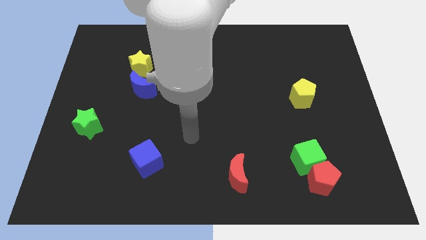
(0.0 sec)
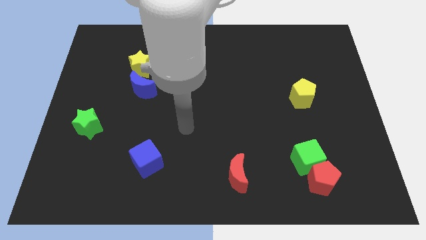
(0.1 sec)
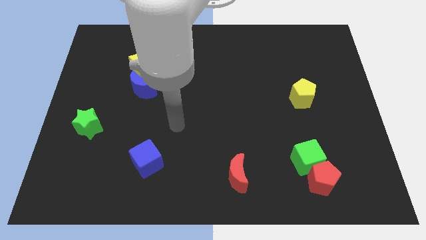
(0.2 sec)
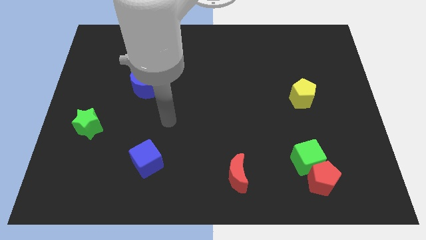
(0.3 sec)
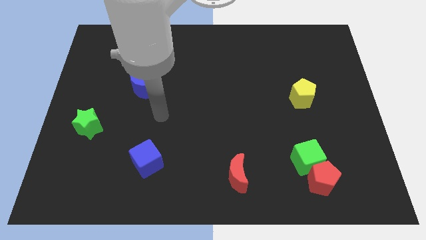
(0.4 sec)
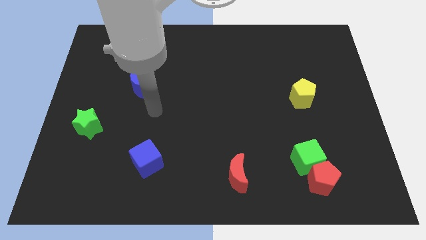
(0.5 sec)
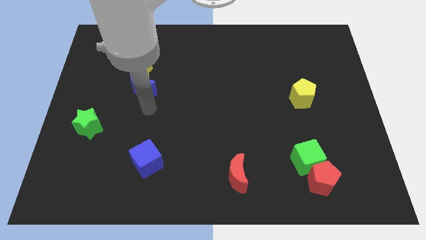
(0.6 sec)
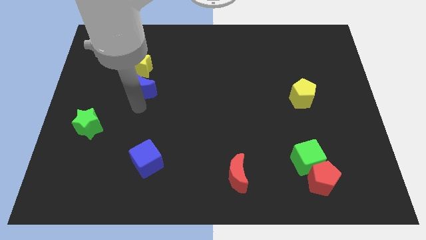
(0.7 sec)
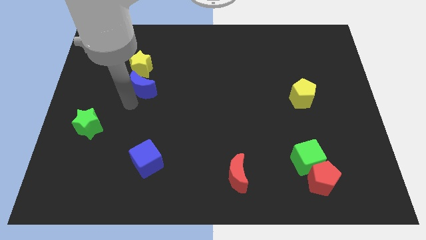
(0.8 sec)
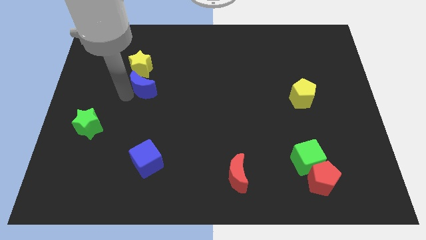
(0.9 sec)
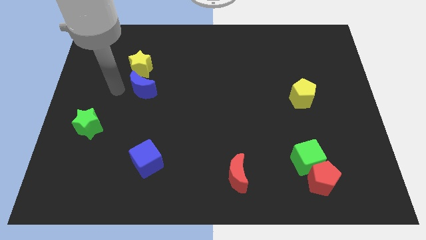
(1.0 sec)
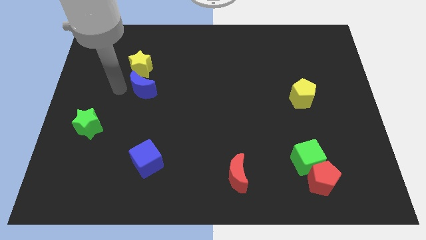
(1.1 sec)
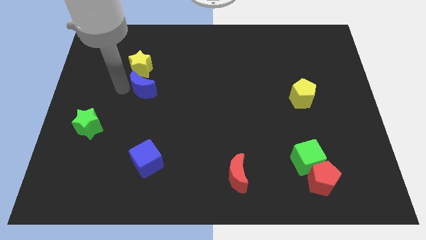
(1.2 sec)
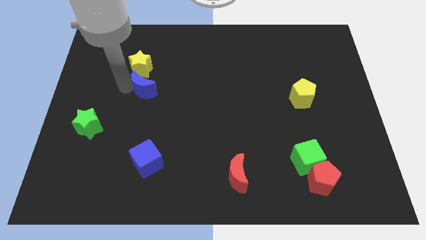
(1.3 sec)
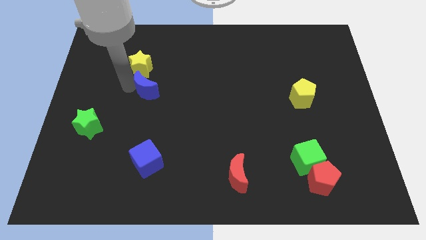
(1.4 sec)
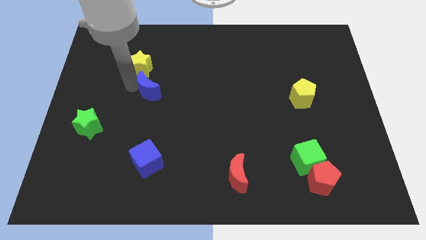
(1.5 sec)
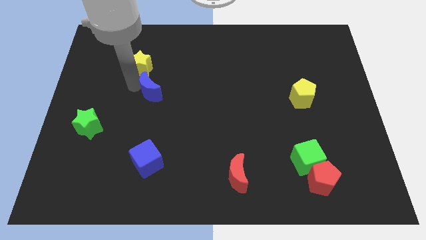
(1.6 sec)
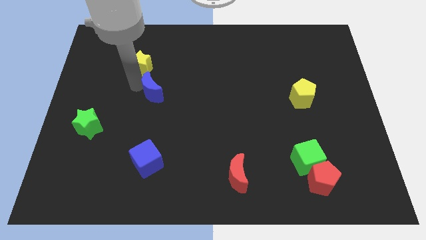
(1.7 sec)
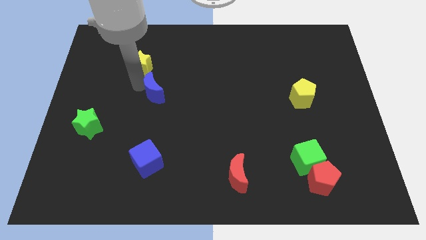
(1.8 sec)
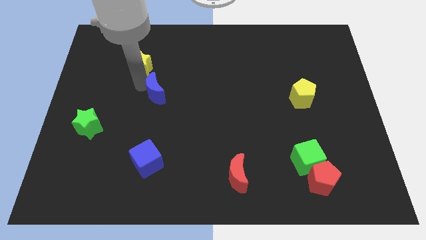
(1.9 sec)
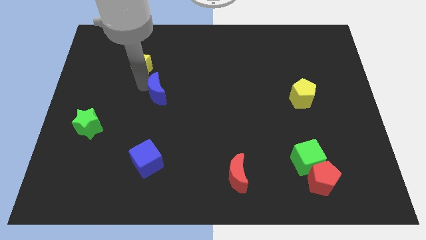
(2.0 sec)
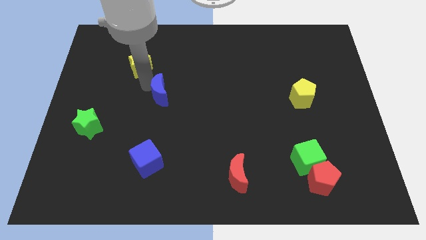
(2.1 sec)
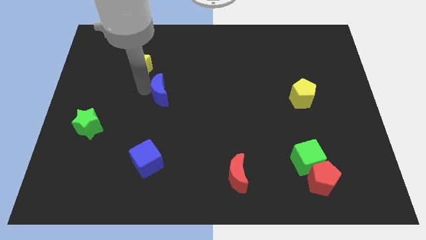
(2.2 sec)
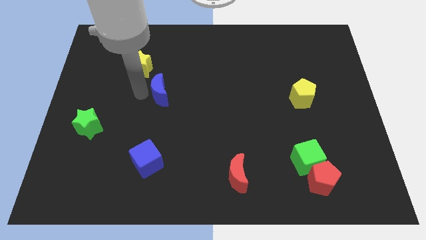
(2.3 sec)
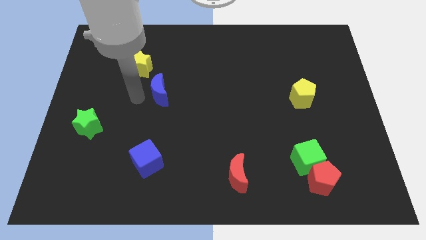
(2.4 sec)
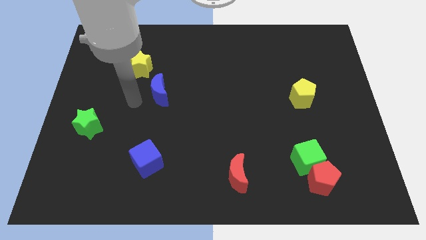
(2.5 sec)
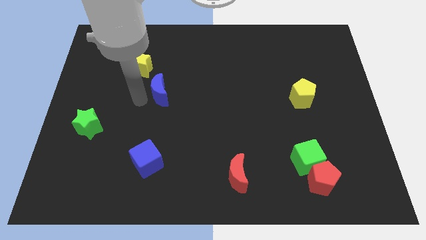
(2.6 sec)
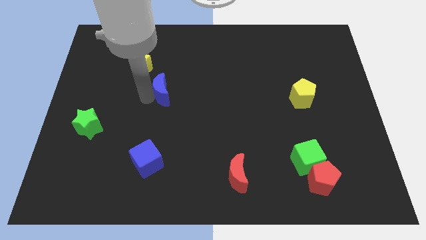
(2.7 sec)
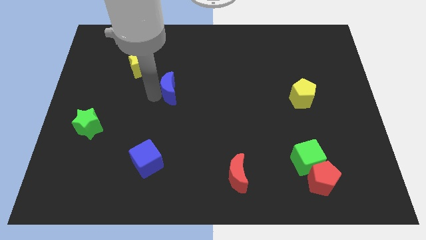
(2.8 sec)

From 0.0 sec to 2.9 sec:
push the blue moon to the right somewhat

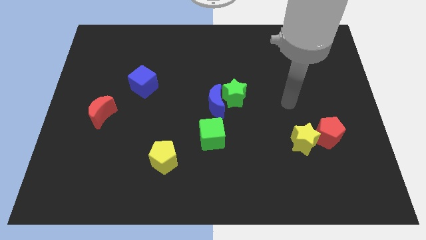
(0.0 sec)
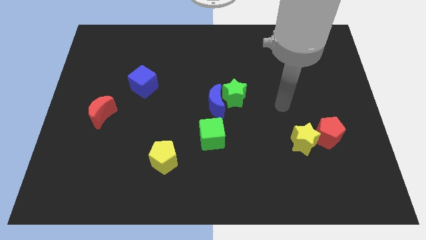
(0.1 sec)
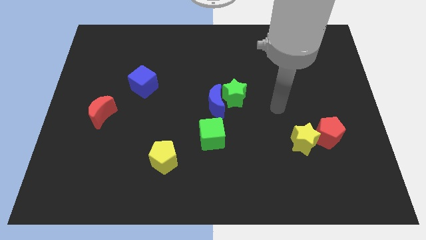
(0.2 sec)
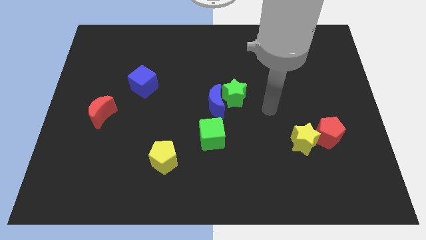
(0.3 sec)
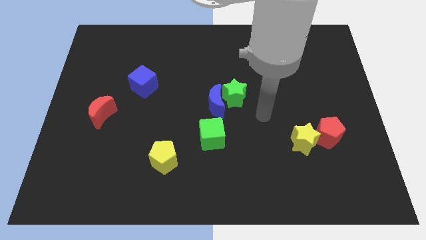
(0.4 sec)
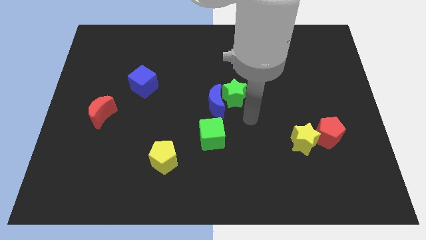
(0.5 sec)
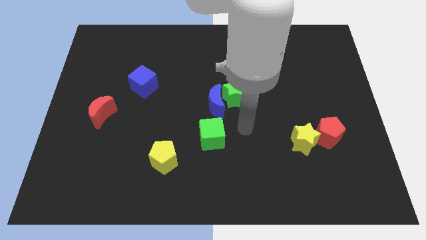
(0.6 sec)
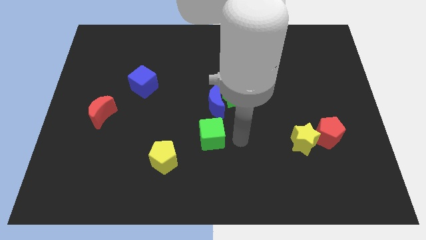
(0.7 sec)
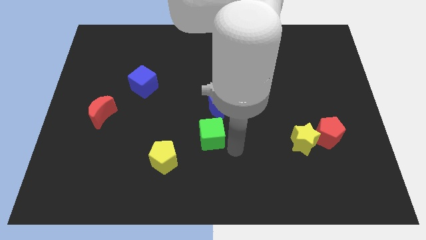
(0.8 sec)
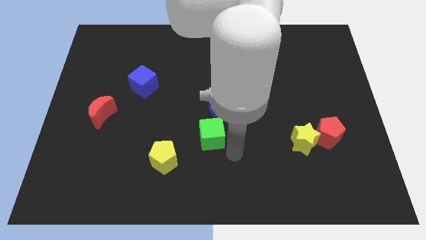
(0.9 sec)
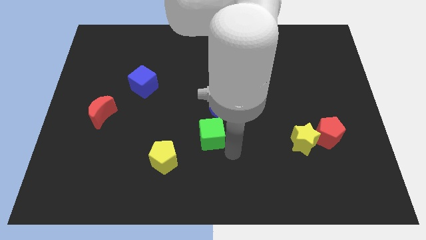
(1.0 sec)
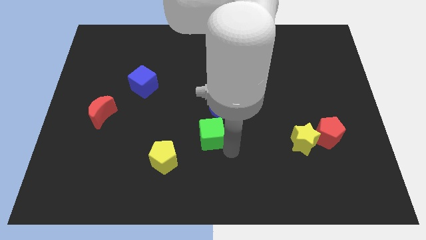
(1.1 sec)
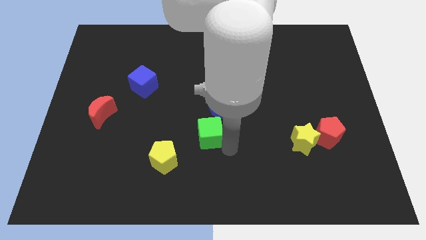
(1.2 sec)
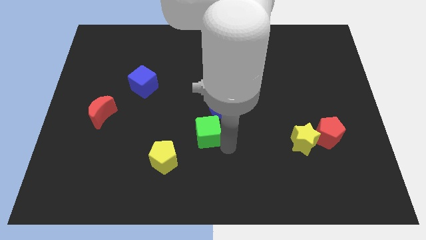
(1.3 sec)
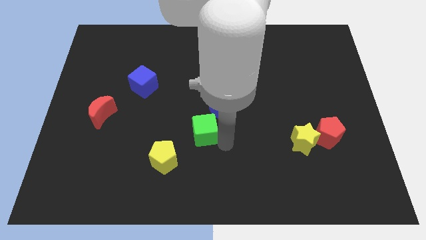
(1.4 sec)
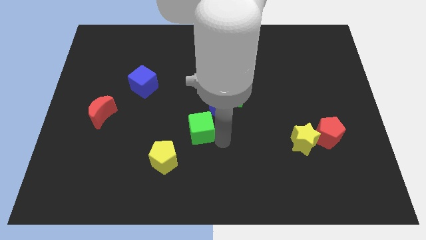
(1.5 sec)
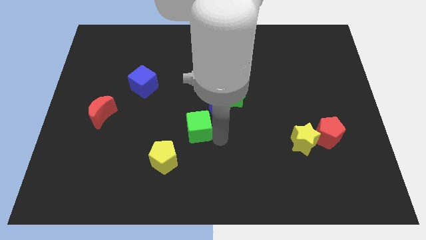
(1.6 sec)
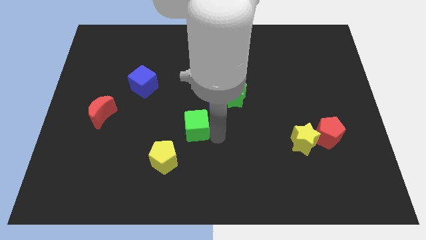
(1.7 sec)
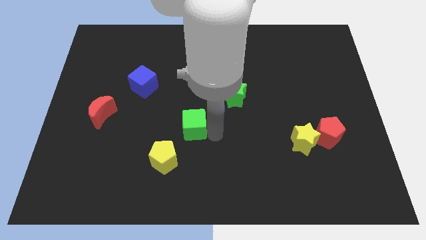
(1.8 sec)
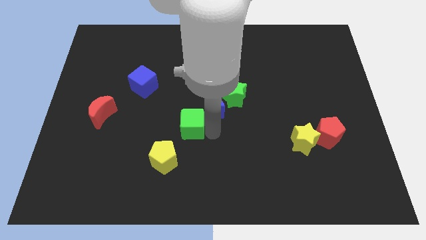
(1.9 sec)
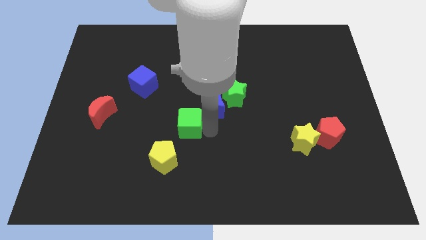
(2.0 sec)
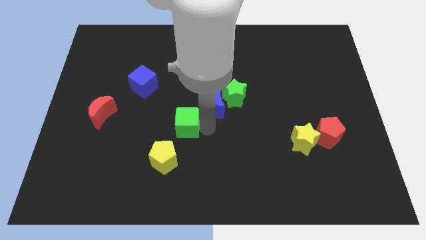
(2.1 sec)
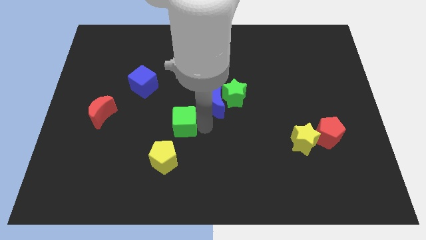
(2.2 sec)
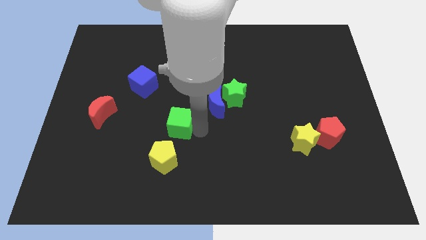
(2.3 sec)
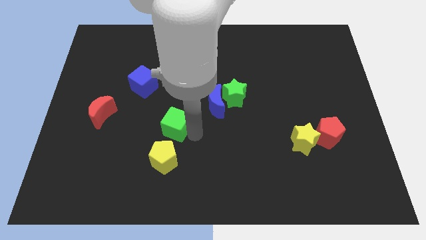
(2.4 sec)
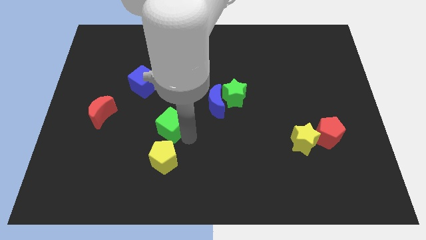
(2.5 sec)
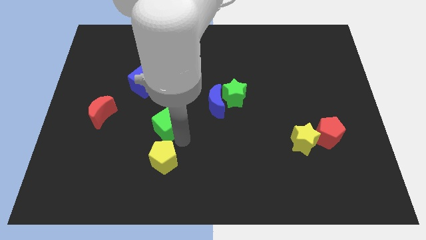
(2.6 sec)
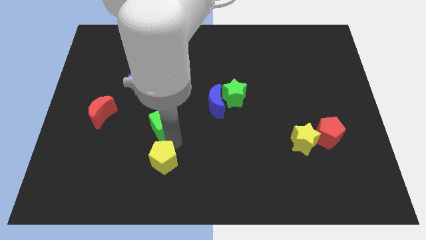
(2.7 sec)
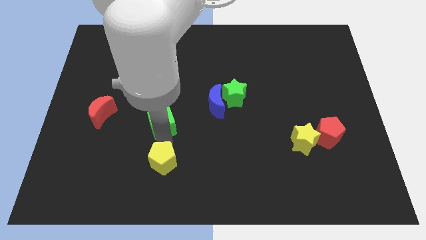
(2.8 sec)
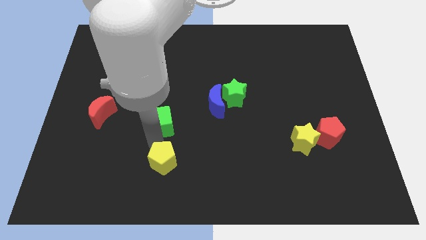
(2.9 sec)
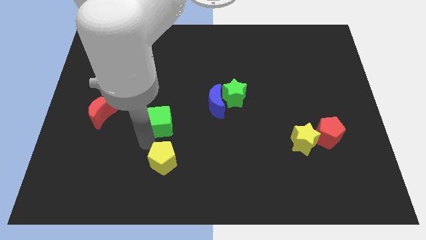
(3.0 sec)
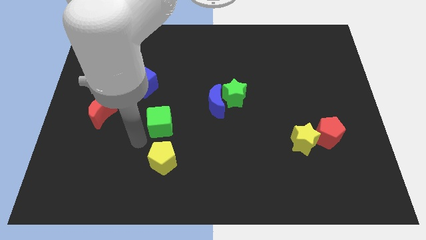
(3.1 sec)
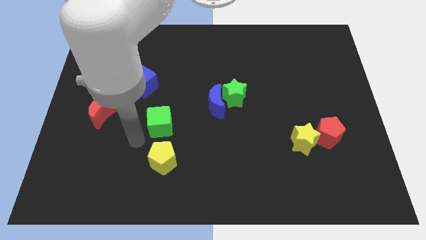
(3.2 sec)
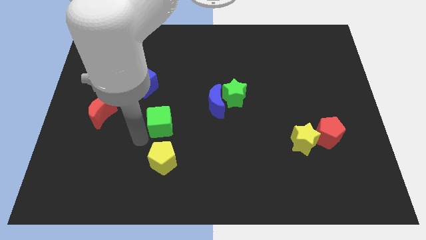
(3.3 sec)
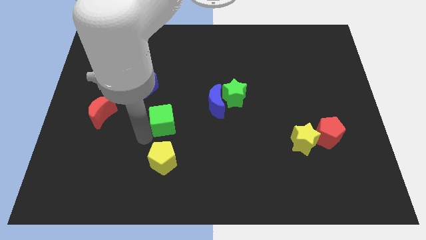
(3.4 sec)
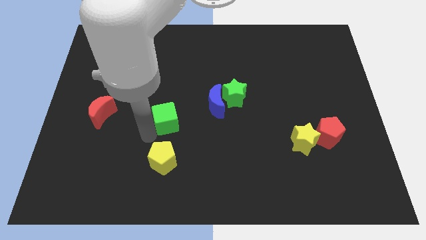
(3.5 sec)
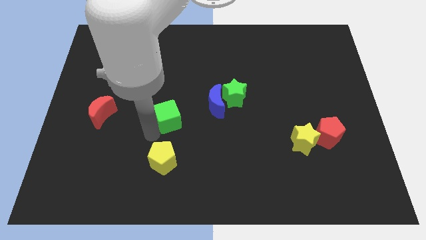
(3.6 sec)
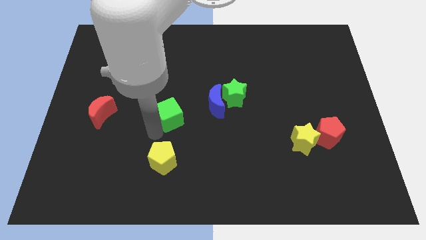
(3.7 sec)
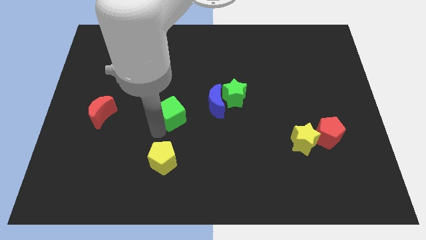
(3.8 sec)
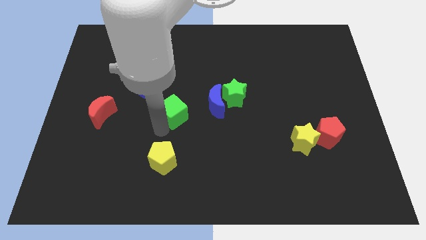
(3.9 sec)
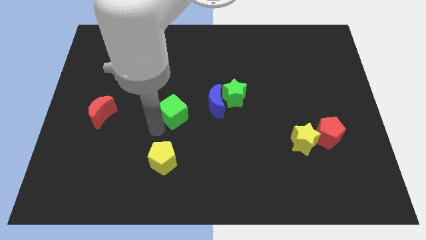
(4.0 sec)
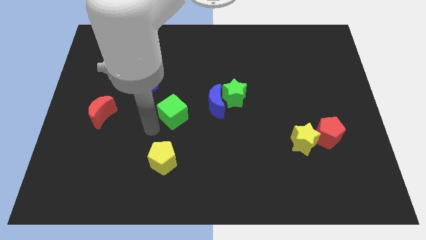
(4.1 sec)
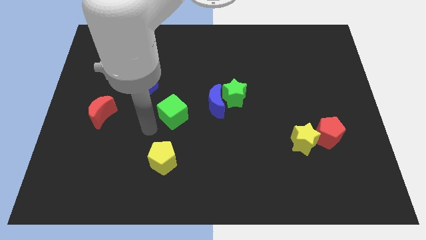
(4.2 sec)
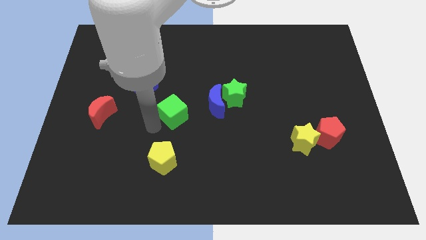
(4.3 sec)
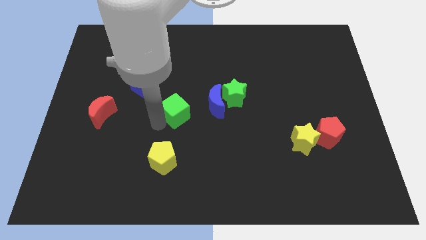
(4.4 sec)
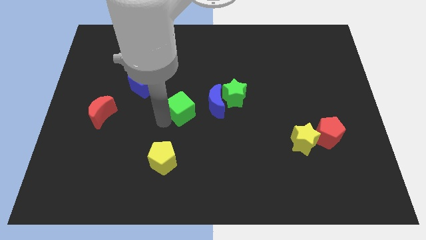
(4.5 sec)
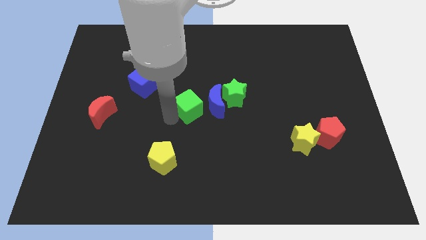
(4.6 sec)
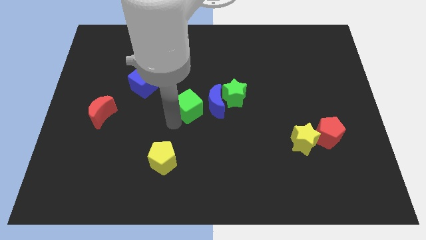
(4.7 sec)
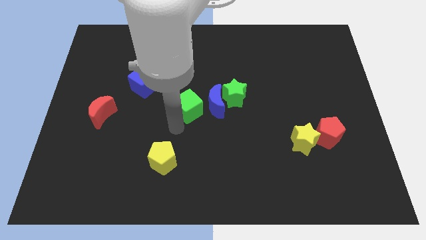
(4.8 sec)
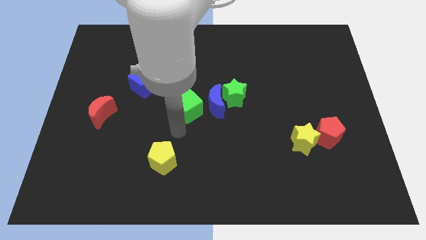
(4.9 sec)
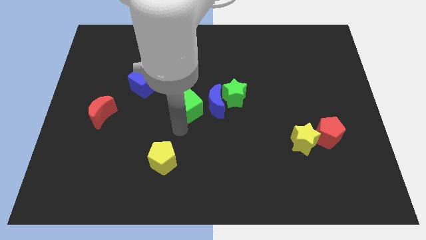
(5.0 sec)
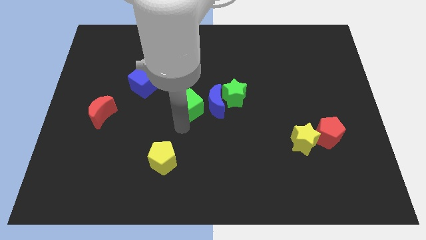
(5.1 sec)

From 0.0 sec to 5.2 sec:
move the green cube a little bit upwards

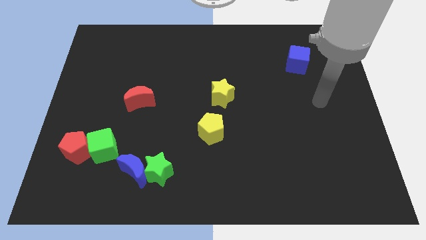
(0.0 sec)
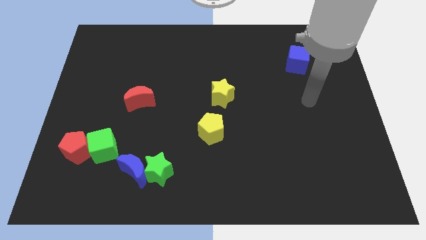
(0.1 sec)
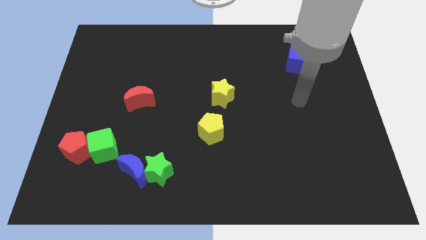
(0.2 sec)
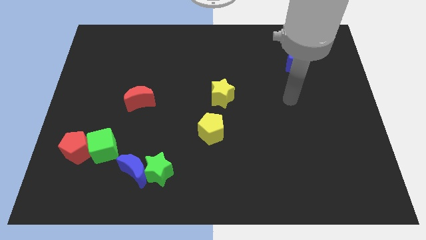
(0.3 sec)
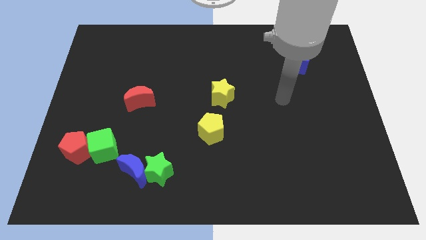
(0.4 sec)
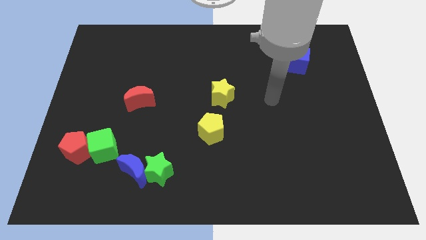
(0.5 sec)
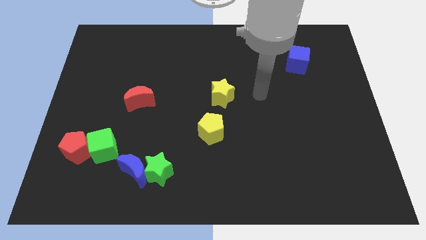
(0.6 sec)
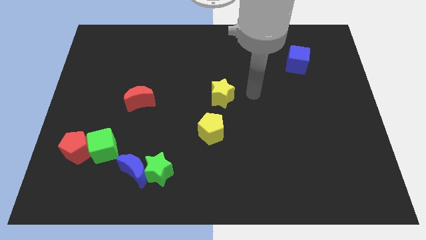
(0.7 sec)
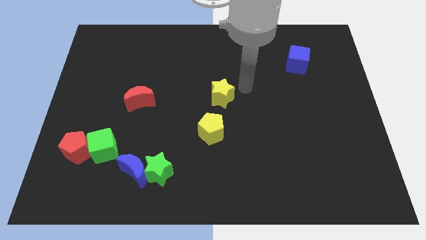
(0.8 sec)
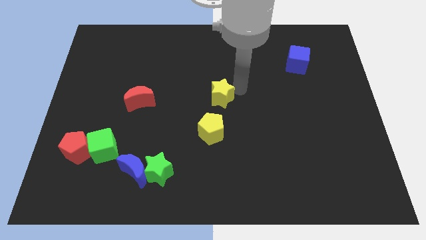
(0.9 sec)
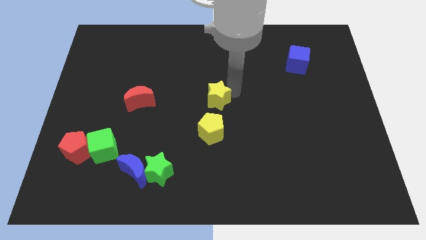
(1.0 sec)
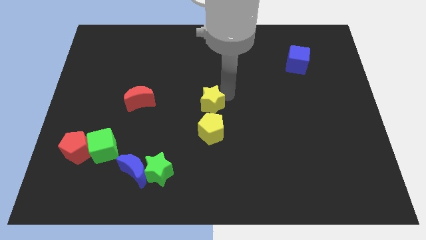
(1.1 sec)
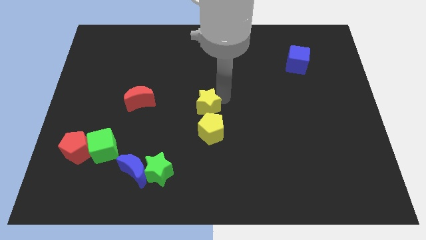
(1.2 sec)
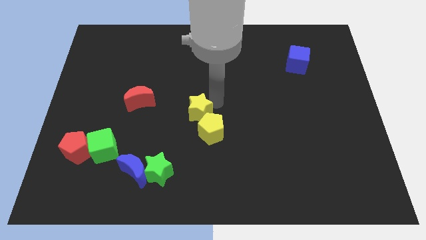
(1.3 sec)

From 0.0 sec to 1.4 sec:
push the yellow star a bit downwards and to the left diagonally
